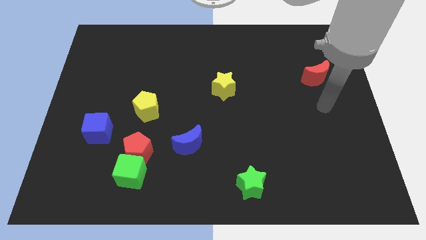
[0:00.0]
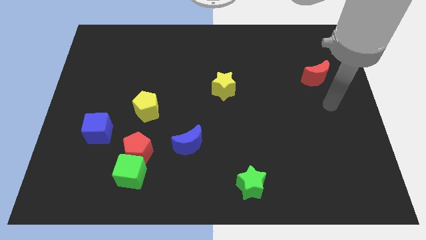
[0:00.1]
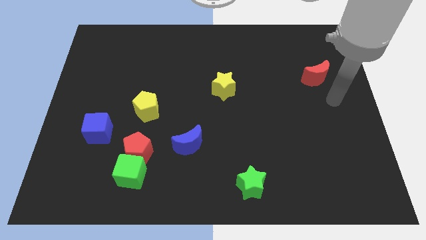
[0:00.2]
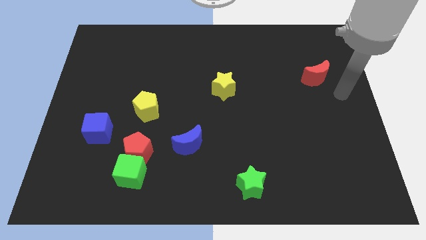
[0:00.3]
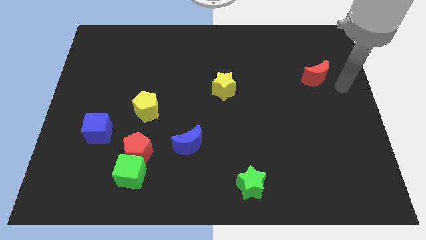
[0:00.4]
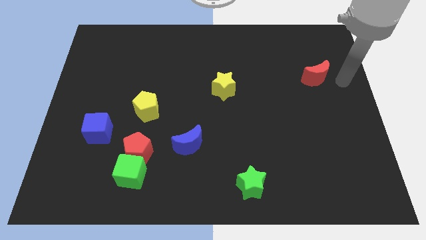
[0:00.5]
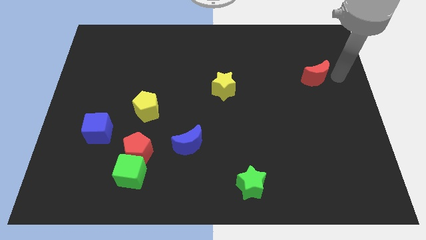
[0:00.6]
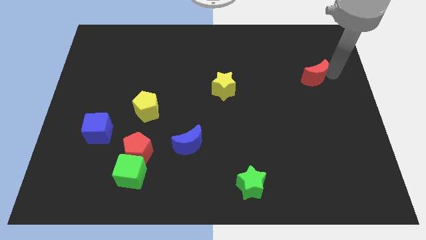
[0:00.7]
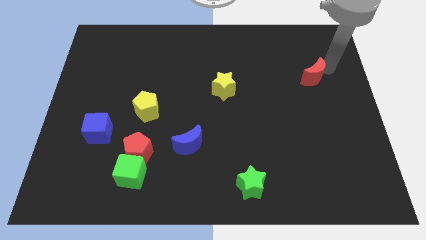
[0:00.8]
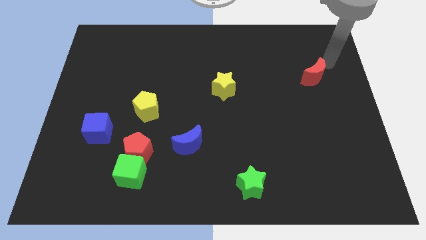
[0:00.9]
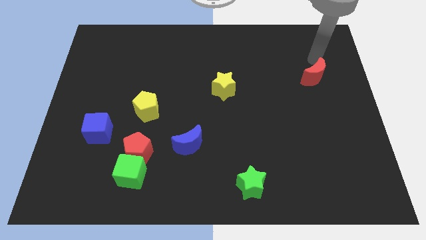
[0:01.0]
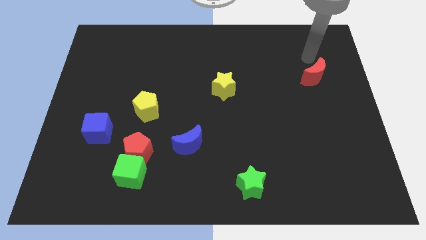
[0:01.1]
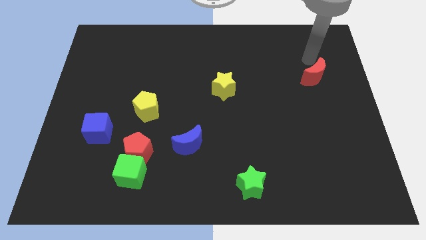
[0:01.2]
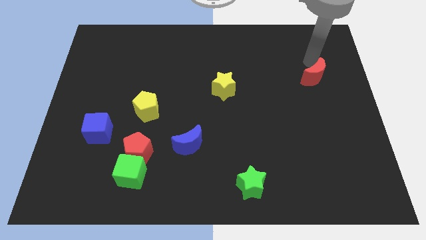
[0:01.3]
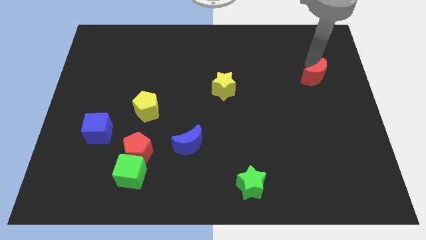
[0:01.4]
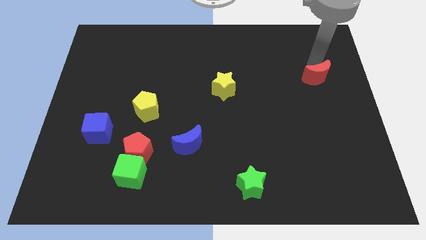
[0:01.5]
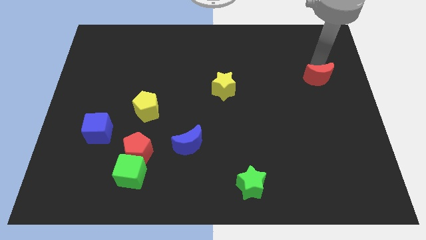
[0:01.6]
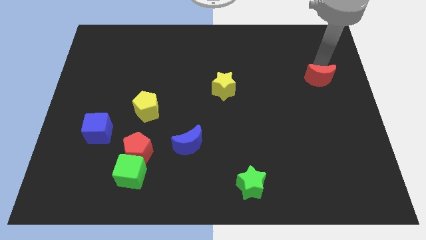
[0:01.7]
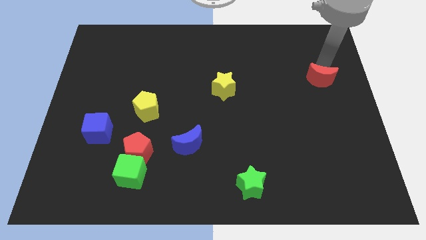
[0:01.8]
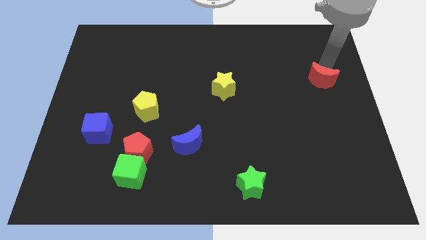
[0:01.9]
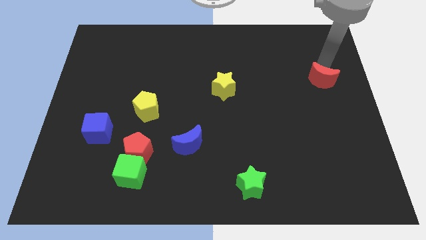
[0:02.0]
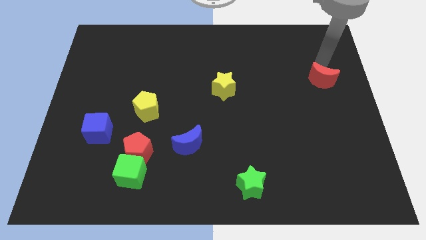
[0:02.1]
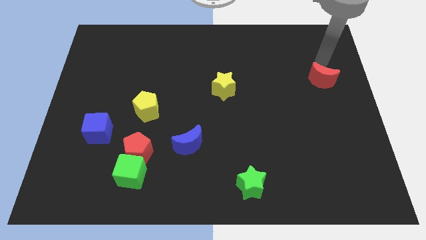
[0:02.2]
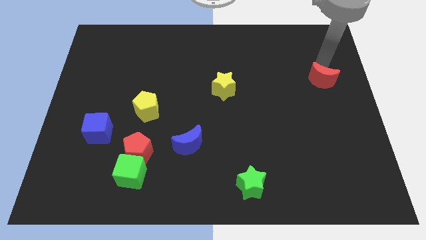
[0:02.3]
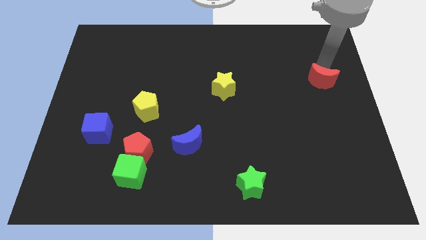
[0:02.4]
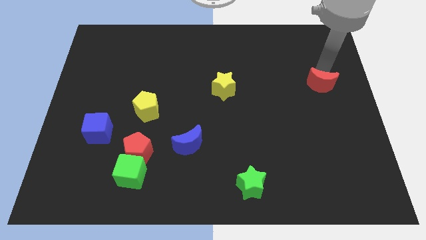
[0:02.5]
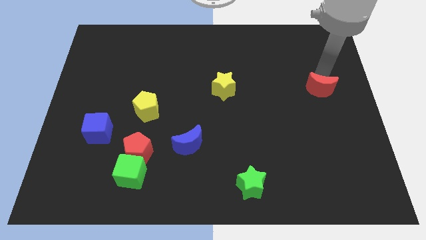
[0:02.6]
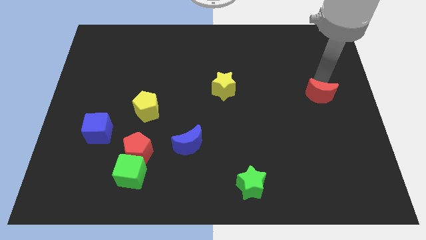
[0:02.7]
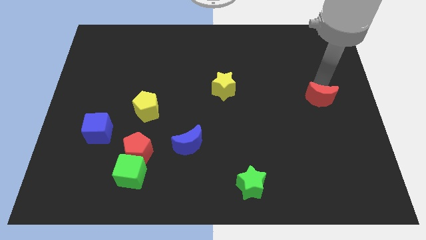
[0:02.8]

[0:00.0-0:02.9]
slightly move the red moon down

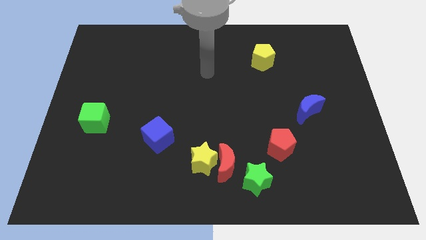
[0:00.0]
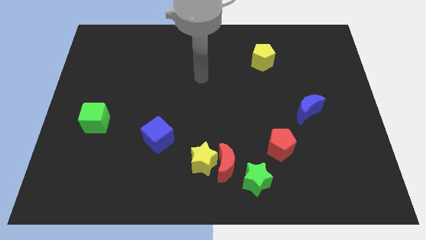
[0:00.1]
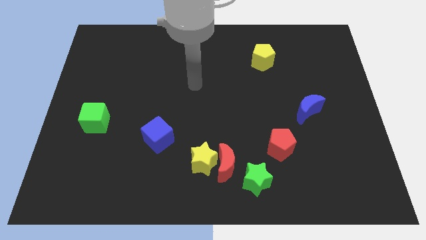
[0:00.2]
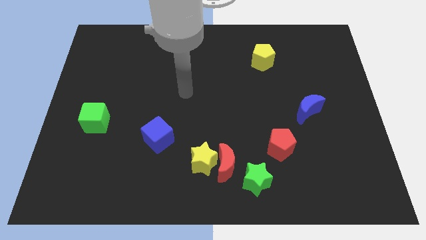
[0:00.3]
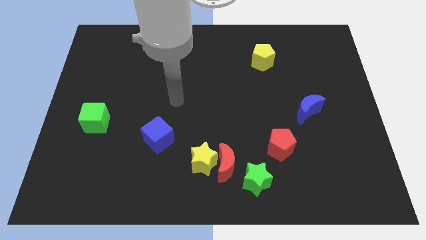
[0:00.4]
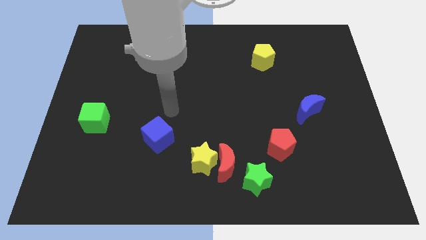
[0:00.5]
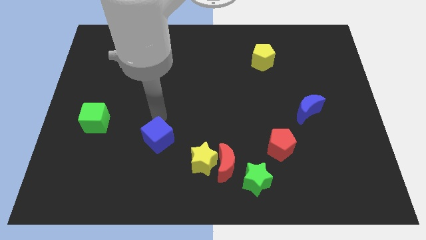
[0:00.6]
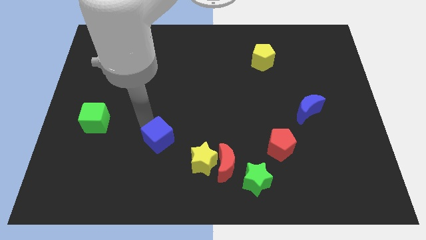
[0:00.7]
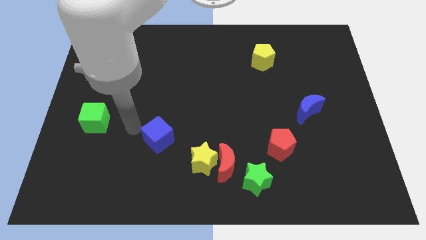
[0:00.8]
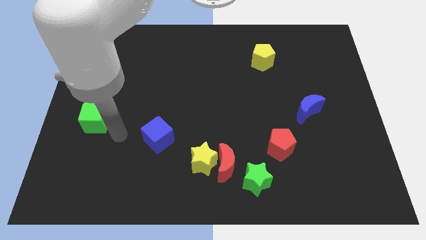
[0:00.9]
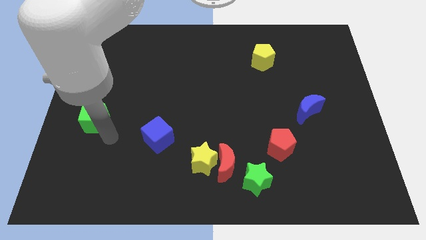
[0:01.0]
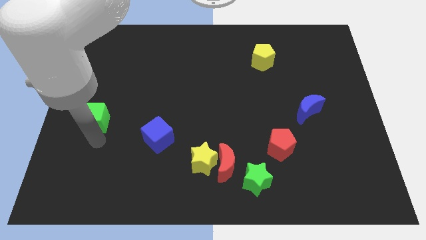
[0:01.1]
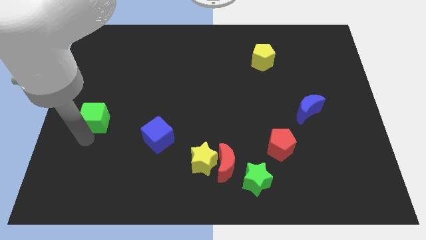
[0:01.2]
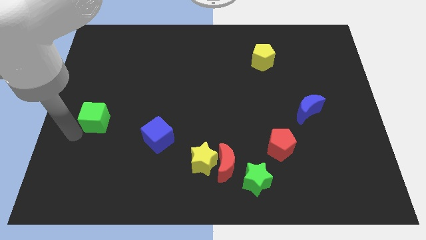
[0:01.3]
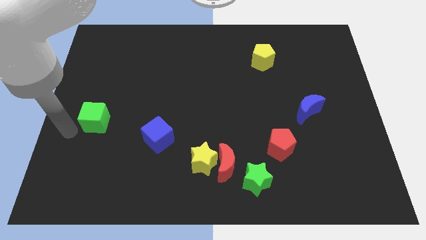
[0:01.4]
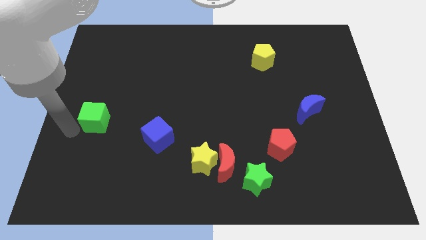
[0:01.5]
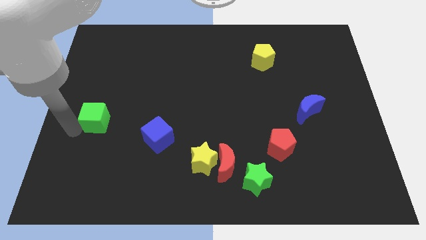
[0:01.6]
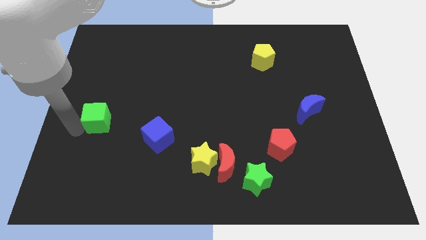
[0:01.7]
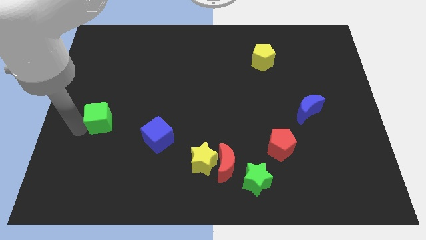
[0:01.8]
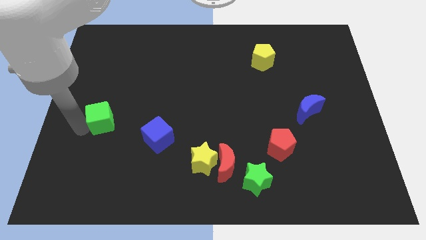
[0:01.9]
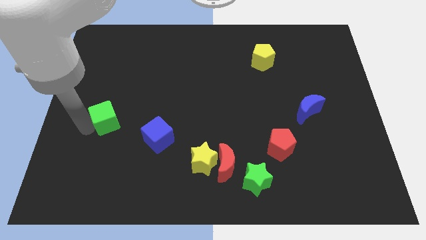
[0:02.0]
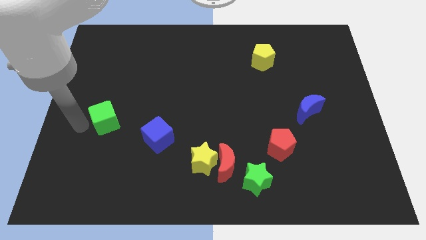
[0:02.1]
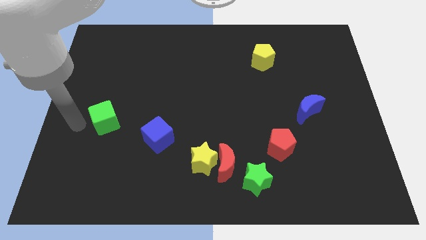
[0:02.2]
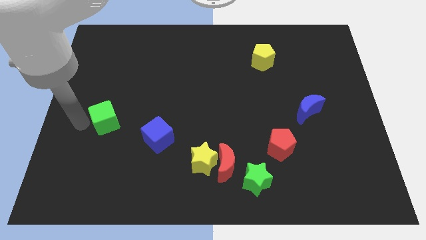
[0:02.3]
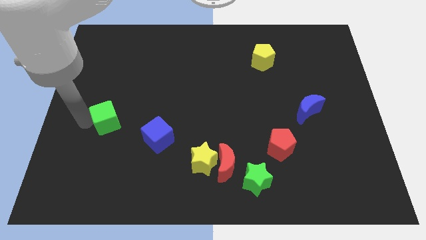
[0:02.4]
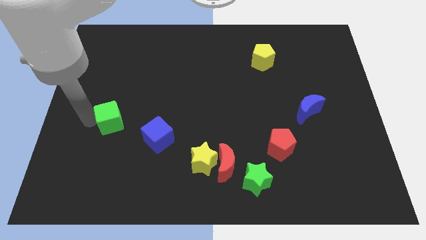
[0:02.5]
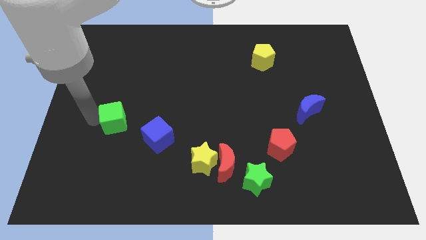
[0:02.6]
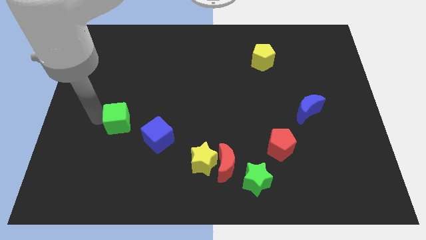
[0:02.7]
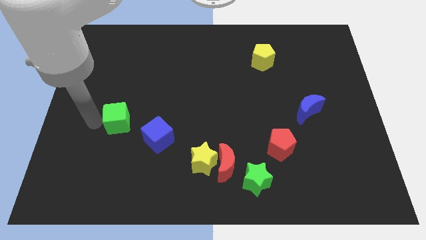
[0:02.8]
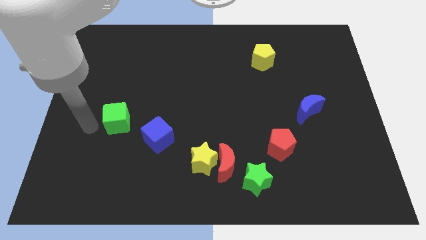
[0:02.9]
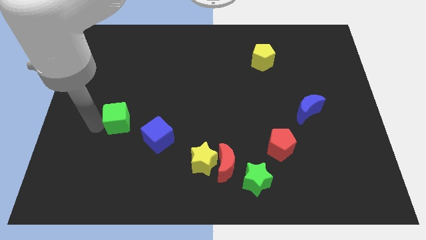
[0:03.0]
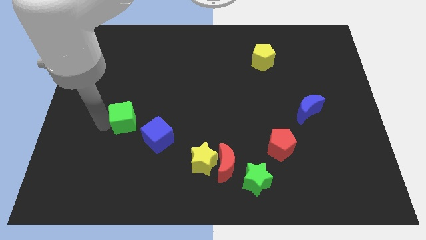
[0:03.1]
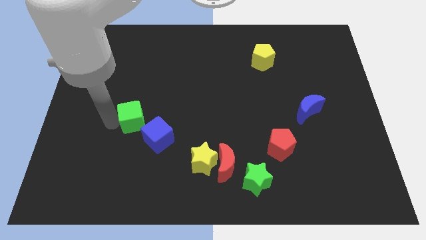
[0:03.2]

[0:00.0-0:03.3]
move the green cube right a little

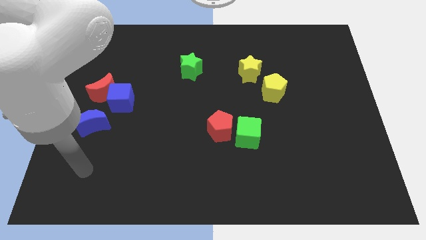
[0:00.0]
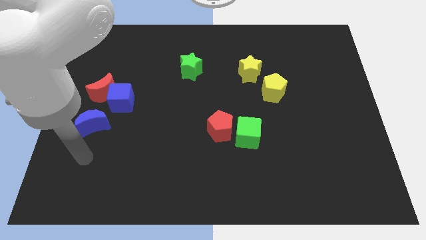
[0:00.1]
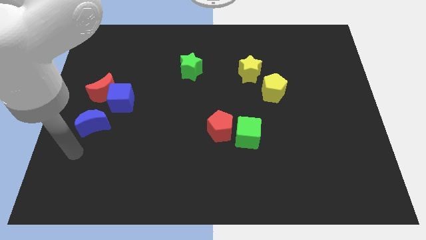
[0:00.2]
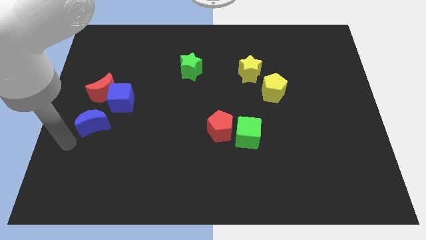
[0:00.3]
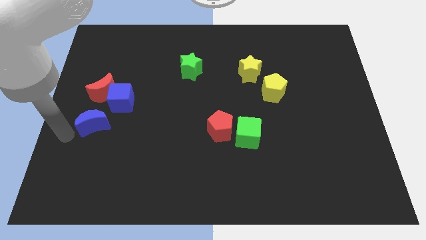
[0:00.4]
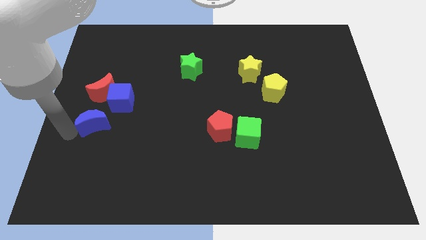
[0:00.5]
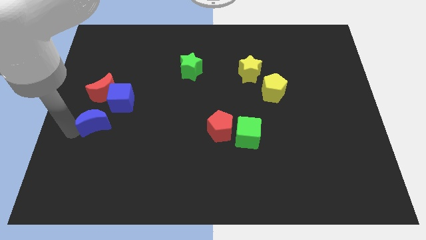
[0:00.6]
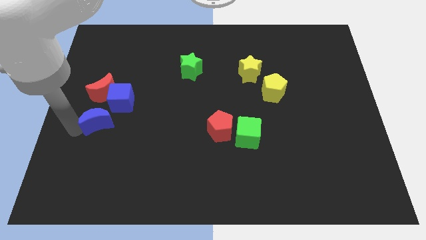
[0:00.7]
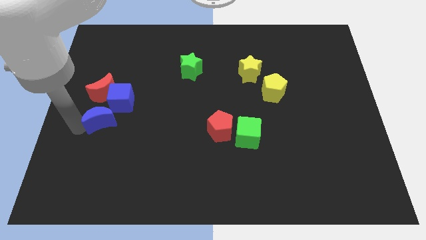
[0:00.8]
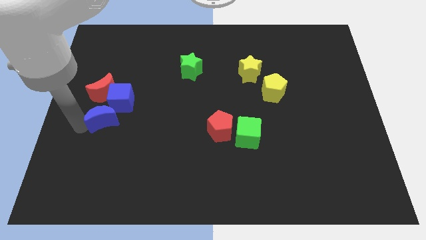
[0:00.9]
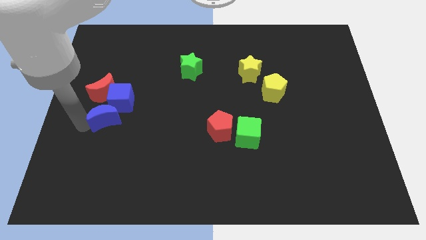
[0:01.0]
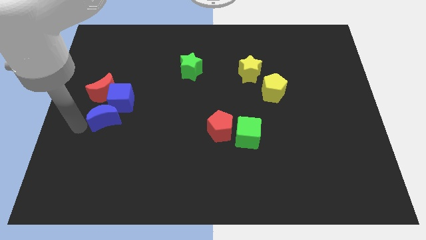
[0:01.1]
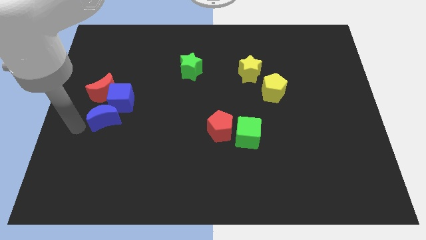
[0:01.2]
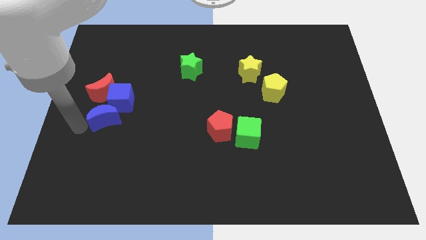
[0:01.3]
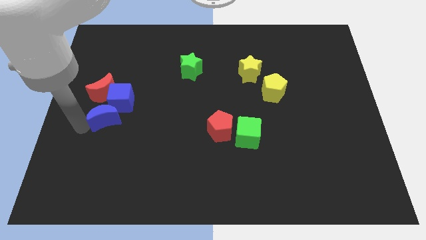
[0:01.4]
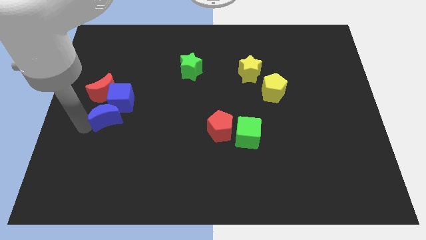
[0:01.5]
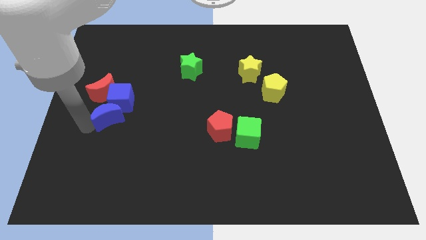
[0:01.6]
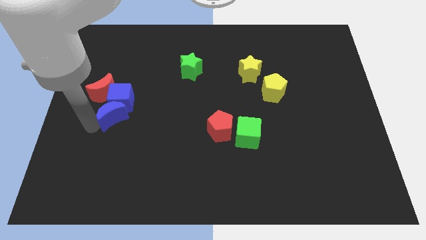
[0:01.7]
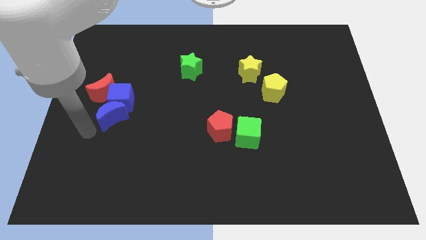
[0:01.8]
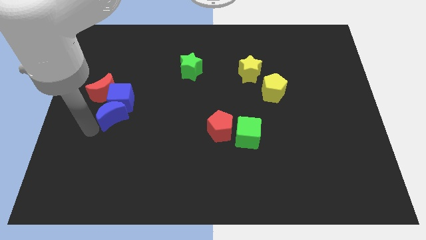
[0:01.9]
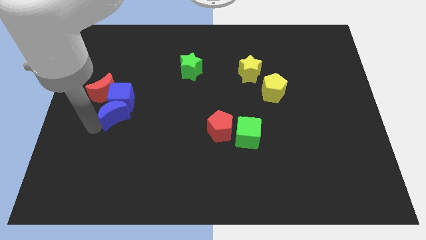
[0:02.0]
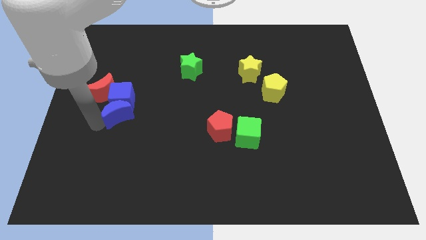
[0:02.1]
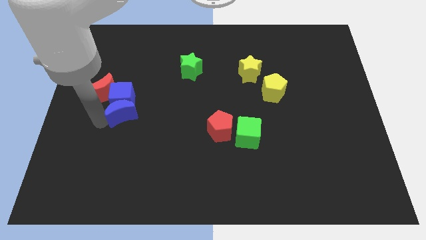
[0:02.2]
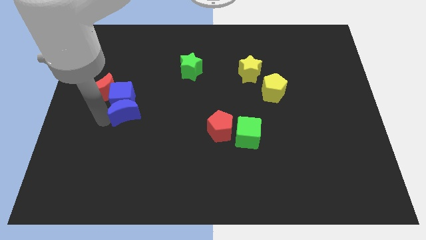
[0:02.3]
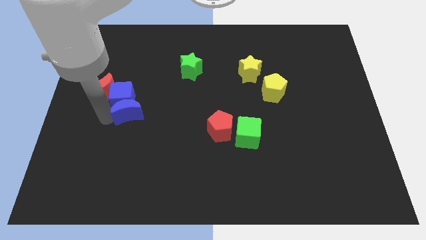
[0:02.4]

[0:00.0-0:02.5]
move the blue moon a bit upwards and right diagonally
